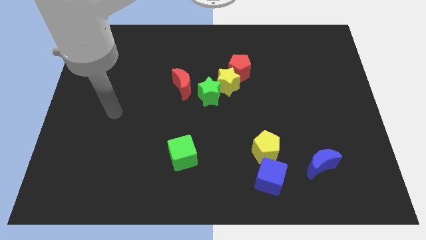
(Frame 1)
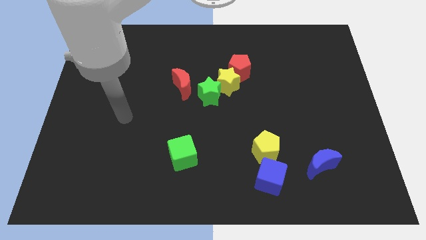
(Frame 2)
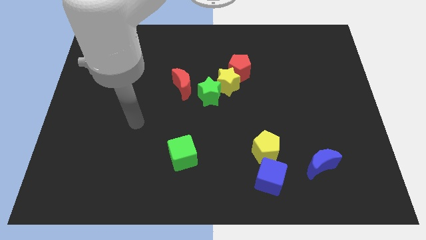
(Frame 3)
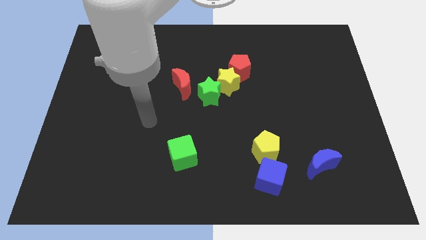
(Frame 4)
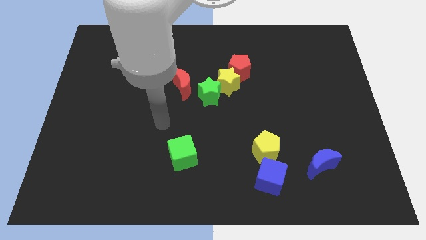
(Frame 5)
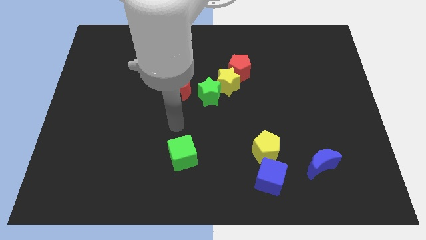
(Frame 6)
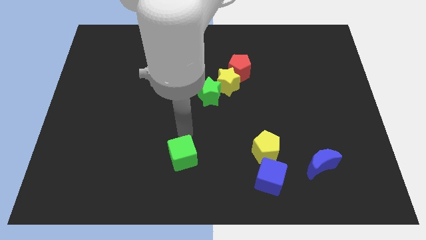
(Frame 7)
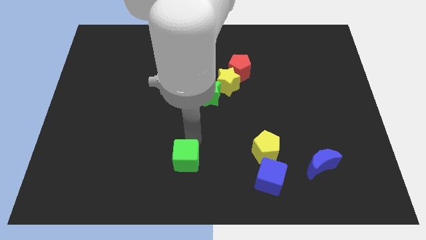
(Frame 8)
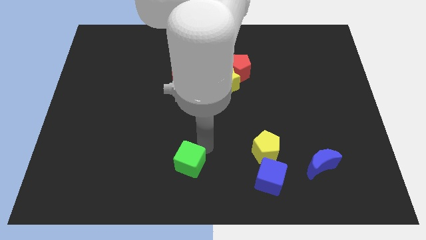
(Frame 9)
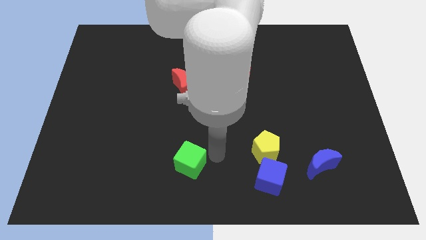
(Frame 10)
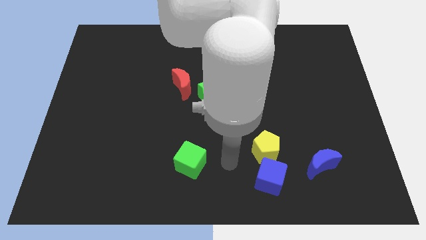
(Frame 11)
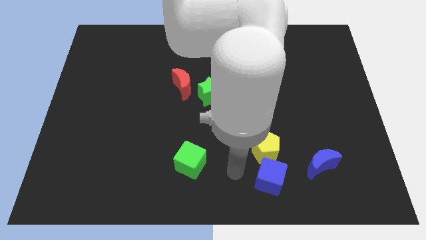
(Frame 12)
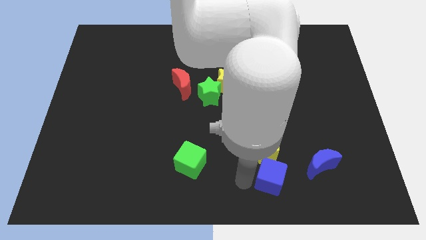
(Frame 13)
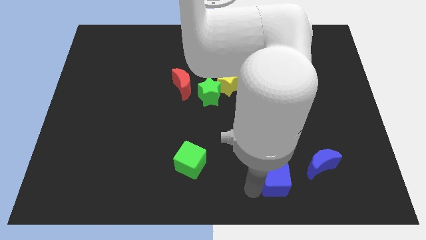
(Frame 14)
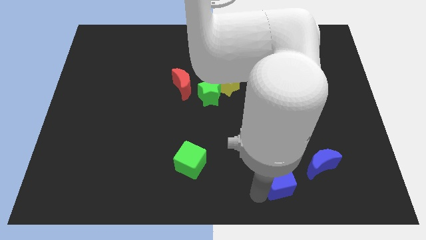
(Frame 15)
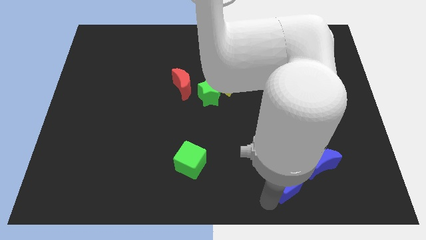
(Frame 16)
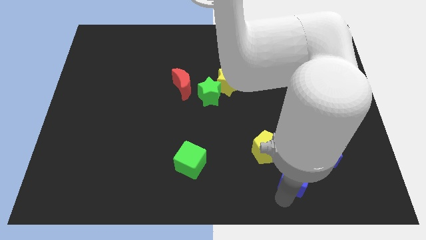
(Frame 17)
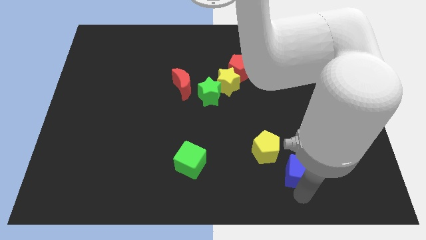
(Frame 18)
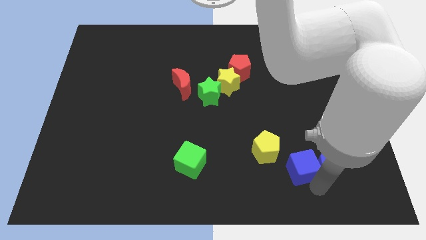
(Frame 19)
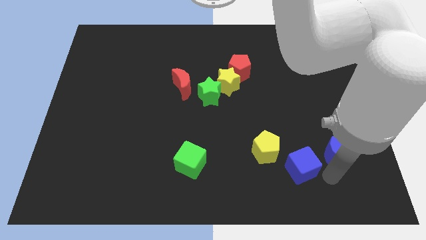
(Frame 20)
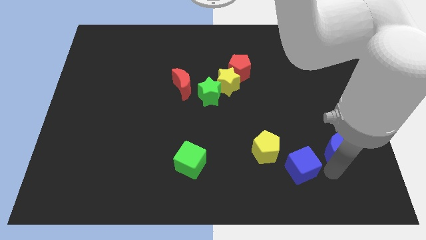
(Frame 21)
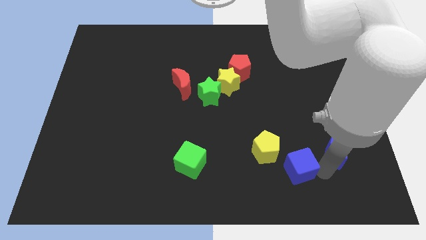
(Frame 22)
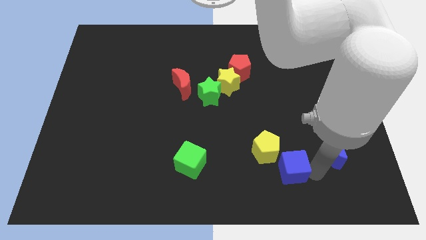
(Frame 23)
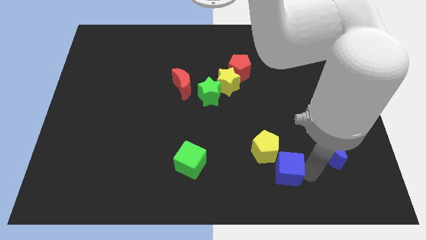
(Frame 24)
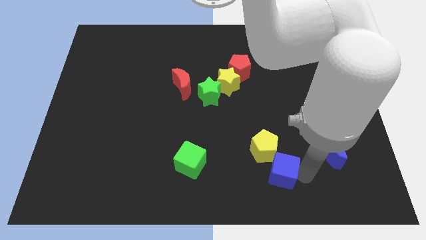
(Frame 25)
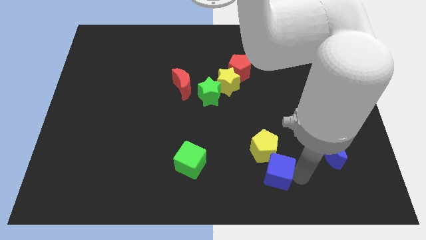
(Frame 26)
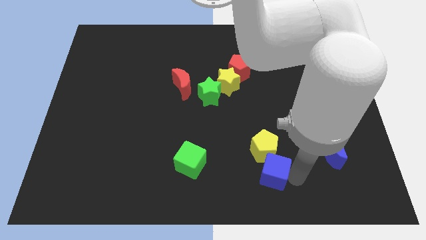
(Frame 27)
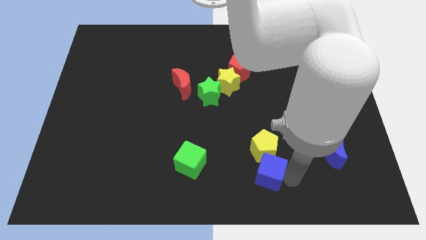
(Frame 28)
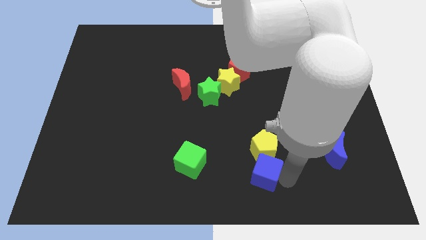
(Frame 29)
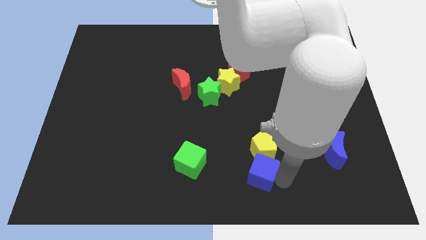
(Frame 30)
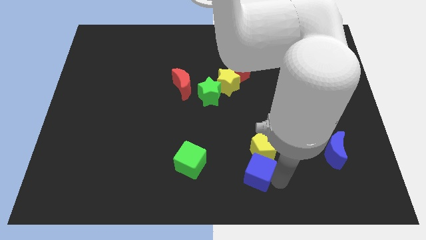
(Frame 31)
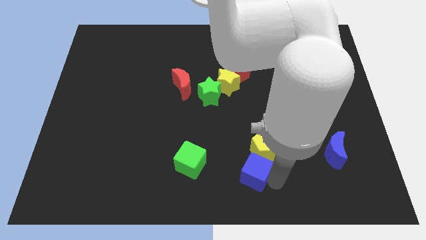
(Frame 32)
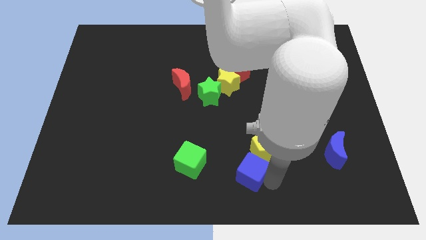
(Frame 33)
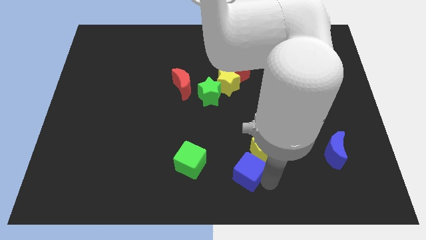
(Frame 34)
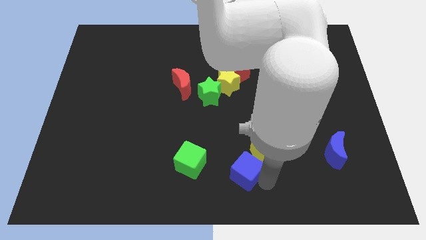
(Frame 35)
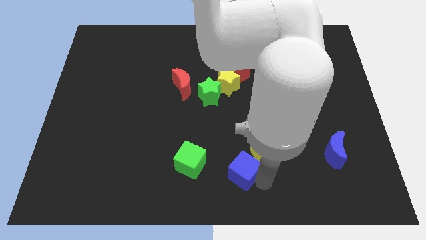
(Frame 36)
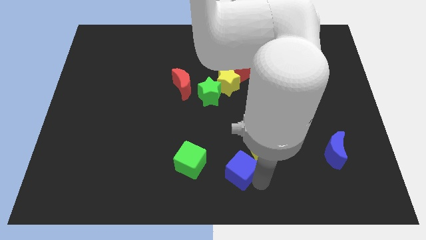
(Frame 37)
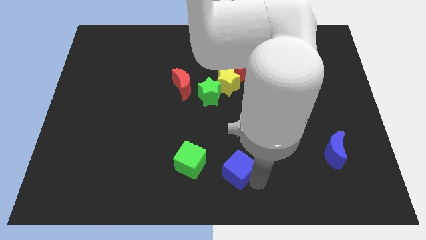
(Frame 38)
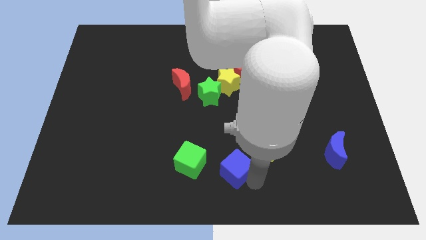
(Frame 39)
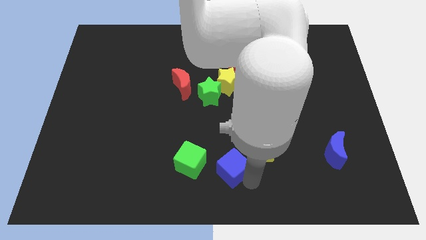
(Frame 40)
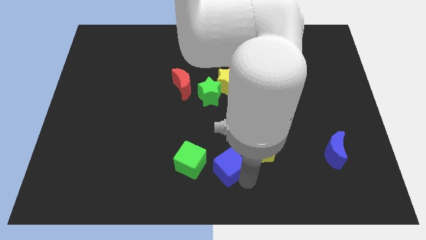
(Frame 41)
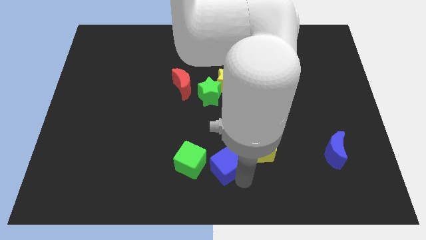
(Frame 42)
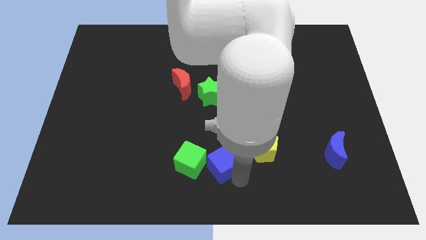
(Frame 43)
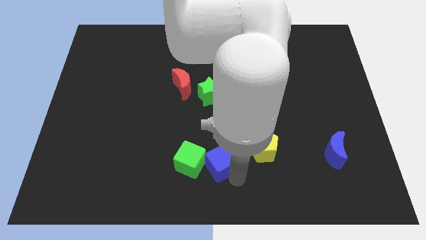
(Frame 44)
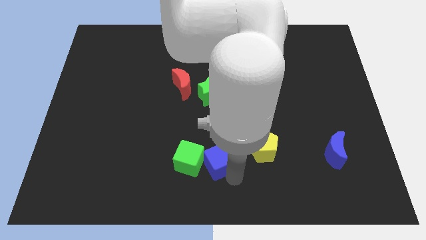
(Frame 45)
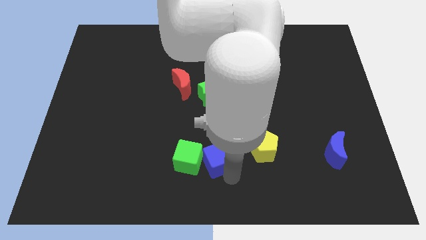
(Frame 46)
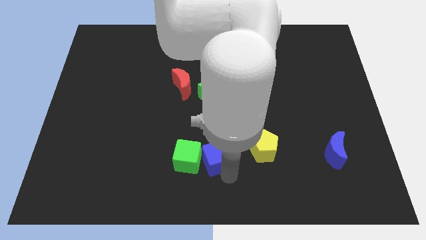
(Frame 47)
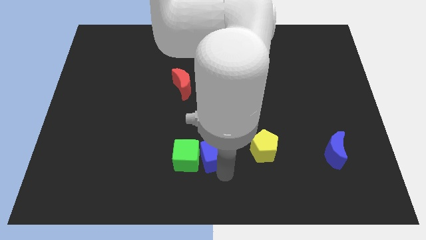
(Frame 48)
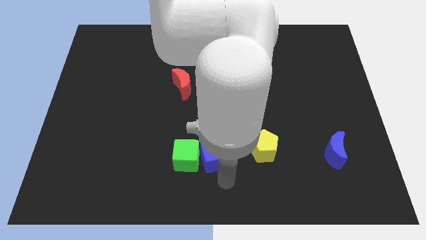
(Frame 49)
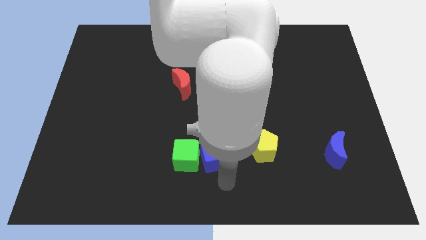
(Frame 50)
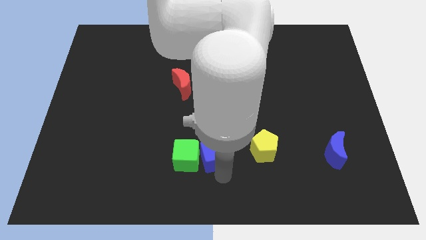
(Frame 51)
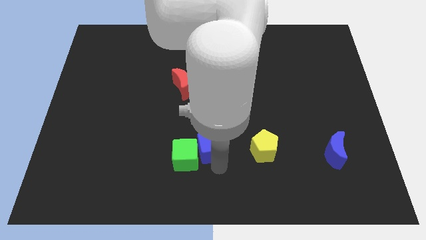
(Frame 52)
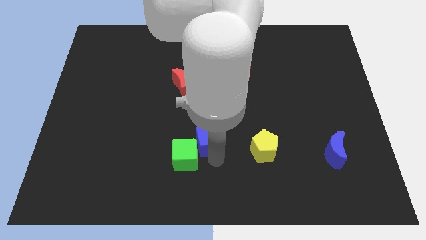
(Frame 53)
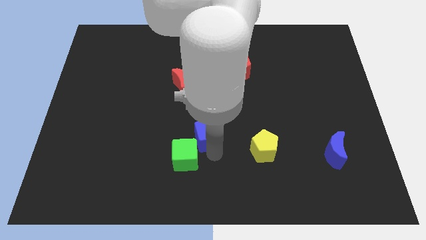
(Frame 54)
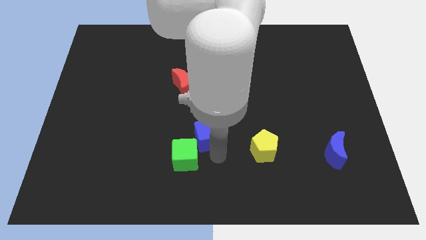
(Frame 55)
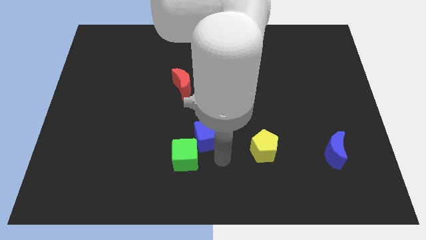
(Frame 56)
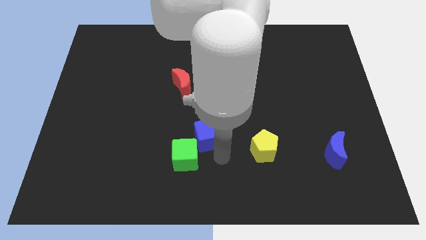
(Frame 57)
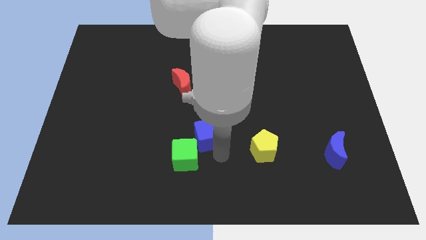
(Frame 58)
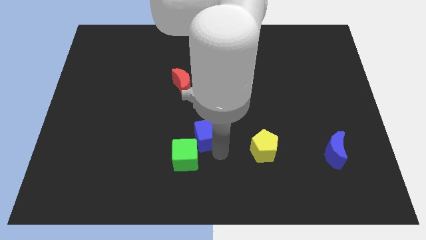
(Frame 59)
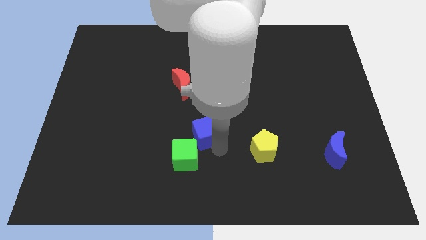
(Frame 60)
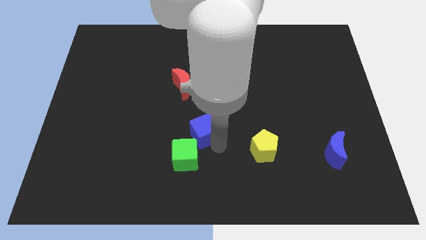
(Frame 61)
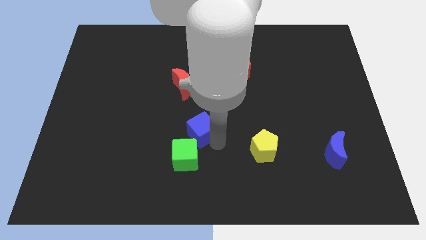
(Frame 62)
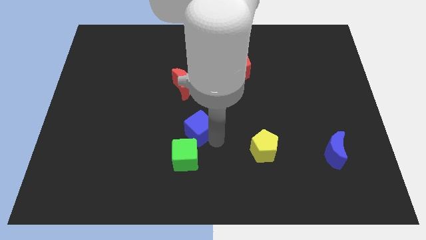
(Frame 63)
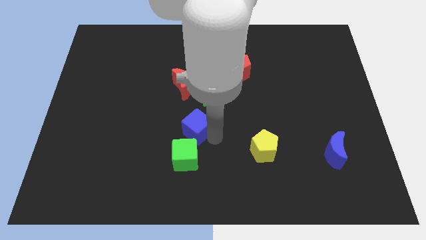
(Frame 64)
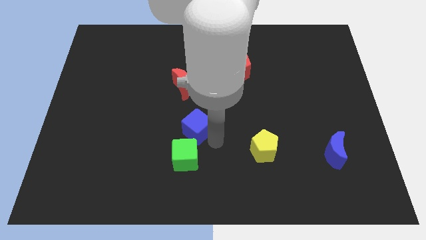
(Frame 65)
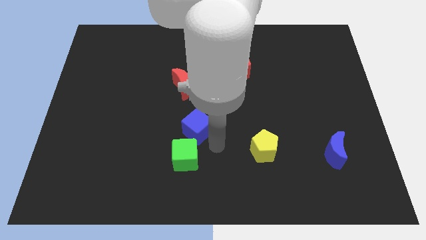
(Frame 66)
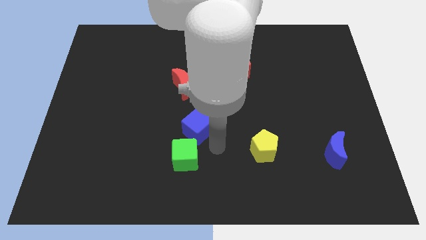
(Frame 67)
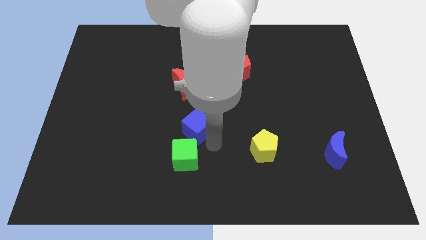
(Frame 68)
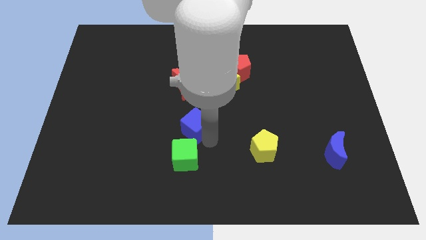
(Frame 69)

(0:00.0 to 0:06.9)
slide the blue cube up and to the left

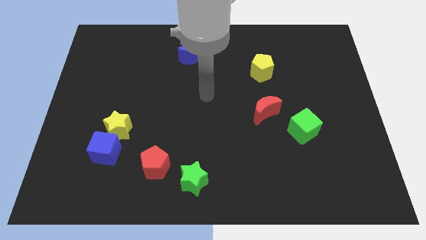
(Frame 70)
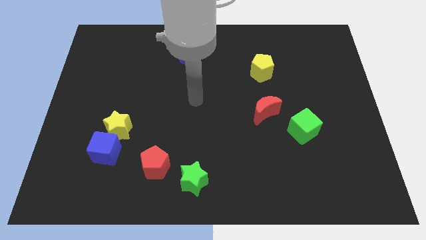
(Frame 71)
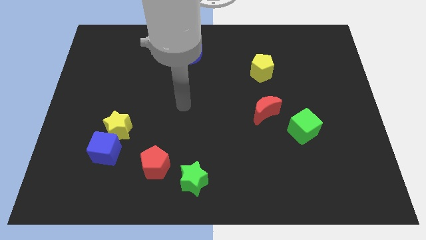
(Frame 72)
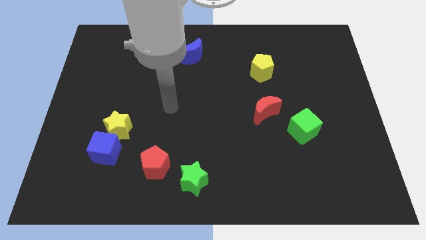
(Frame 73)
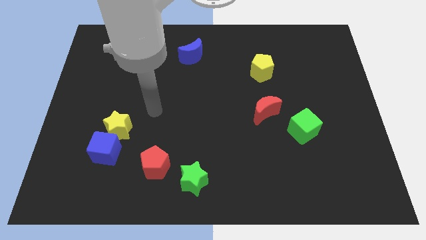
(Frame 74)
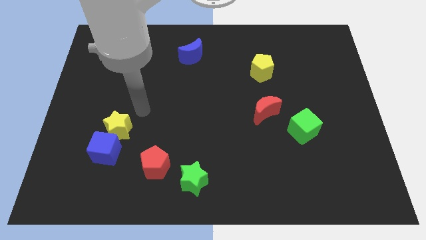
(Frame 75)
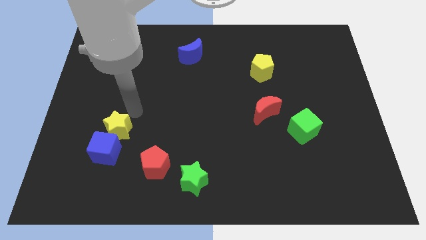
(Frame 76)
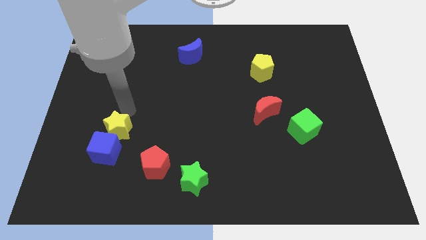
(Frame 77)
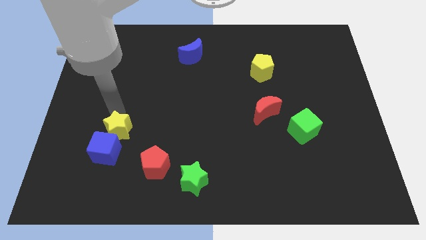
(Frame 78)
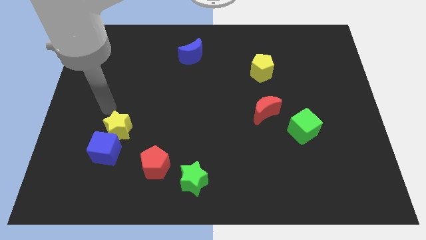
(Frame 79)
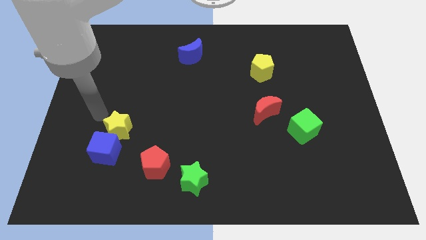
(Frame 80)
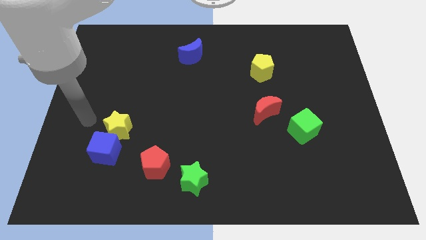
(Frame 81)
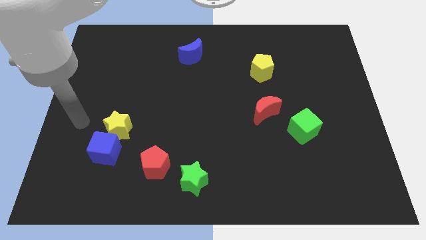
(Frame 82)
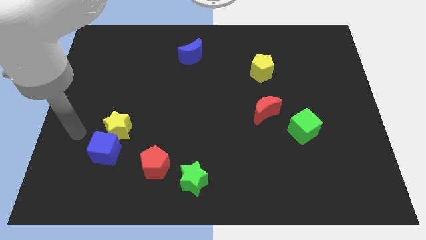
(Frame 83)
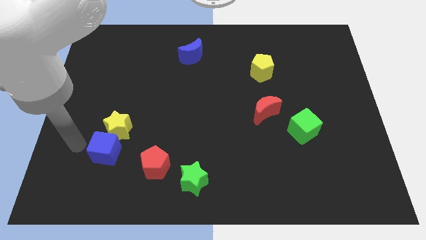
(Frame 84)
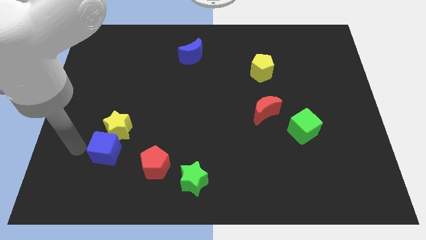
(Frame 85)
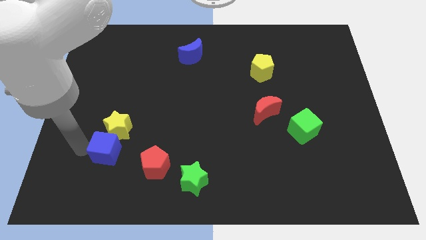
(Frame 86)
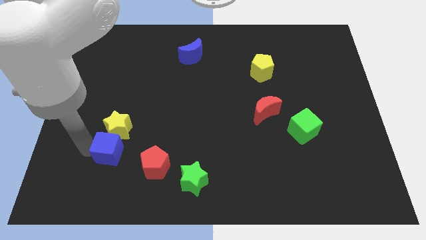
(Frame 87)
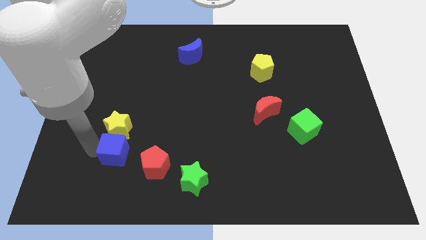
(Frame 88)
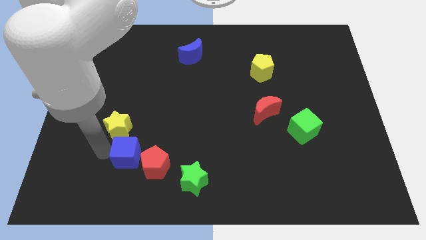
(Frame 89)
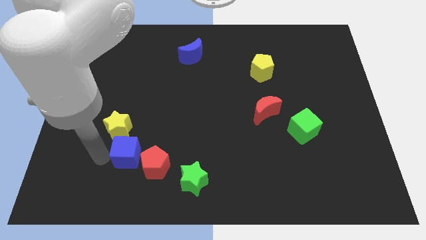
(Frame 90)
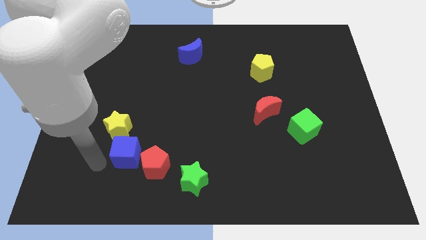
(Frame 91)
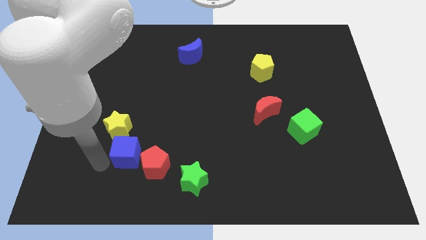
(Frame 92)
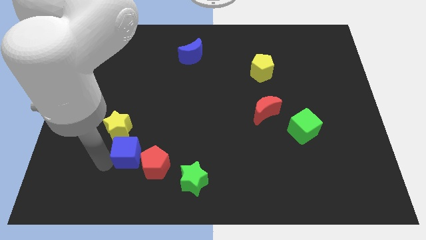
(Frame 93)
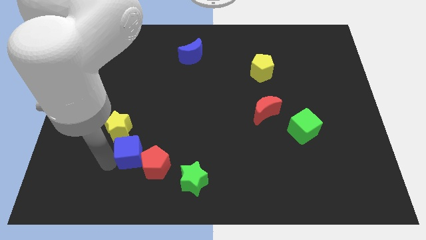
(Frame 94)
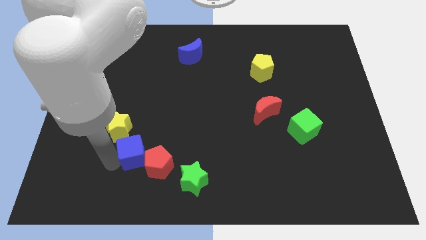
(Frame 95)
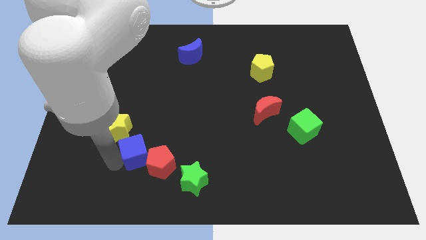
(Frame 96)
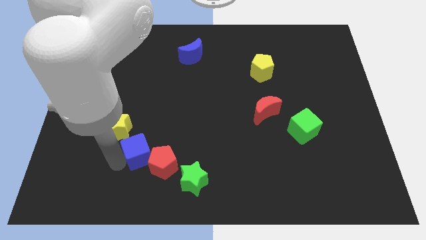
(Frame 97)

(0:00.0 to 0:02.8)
slide the blue cube a bit to the right
